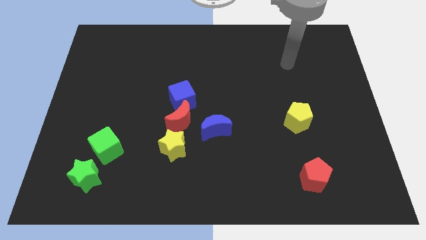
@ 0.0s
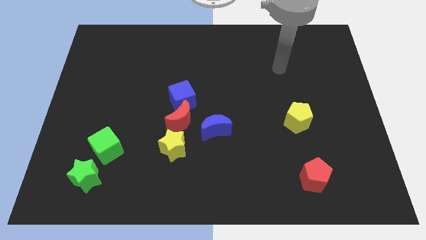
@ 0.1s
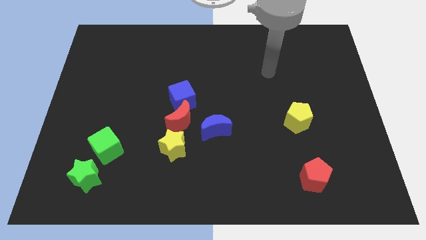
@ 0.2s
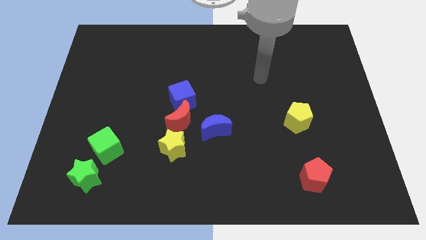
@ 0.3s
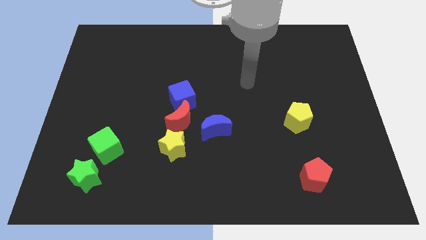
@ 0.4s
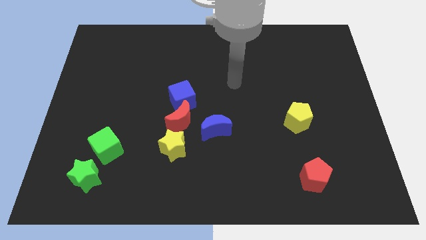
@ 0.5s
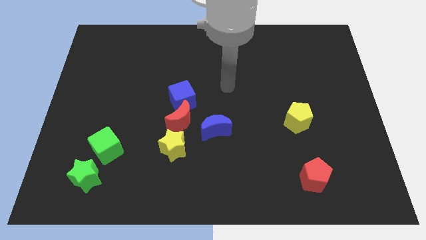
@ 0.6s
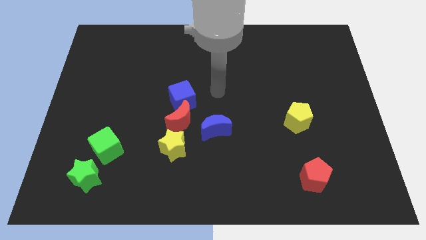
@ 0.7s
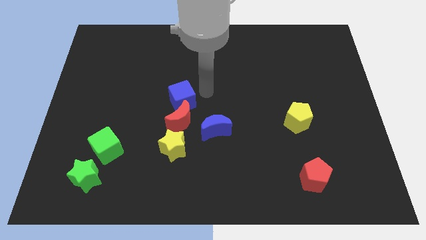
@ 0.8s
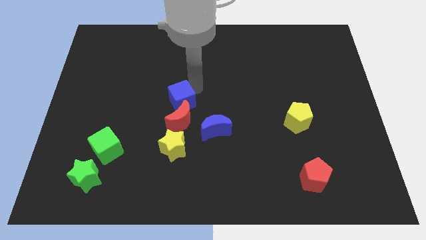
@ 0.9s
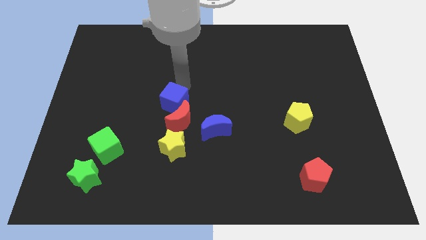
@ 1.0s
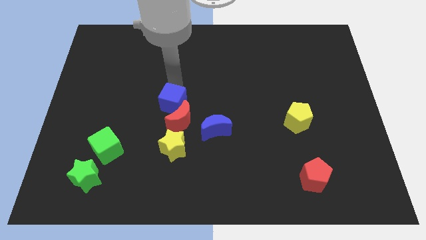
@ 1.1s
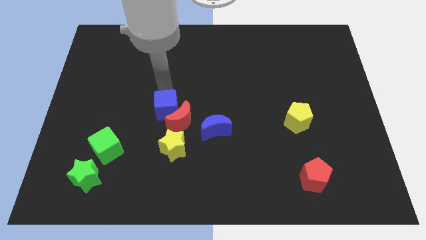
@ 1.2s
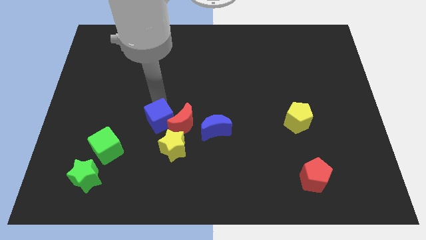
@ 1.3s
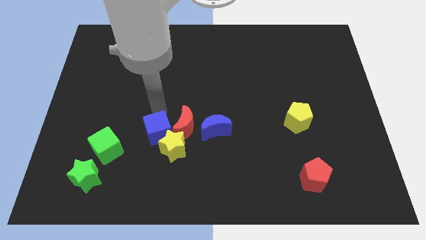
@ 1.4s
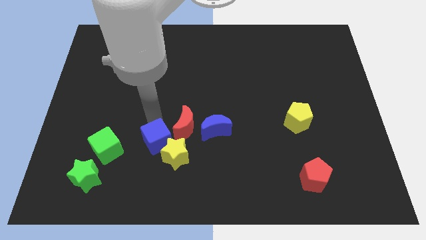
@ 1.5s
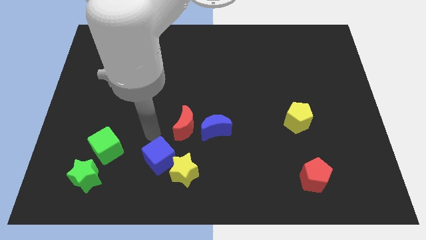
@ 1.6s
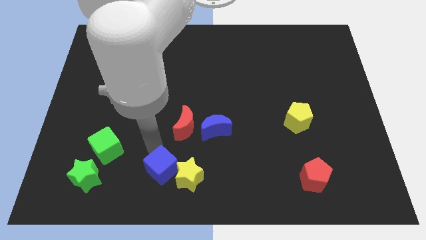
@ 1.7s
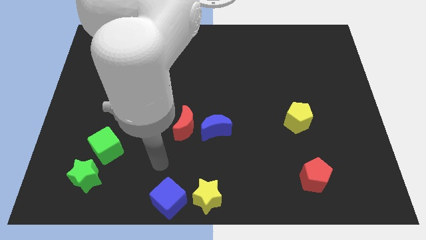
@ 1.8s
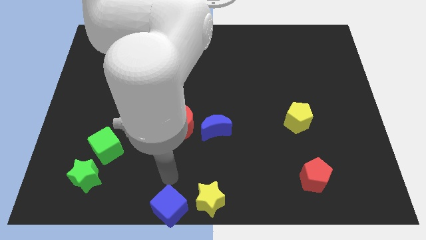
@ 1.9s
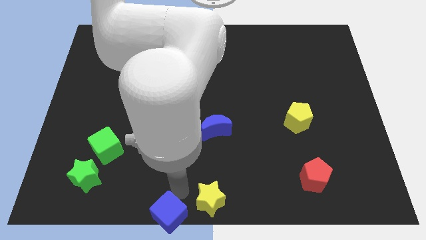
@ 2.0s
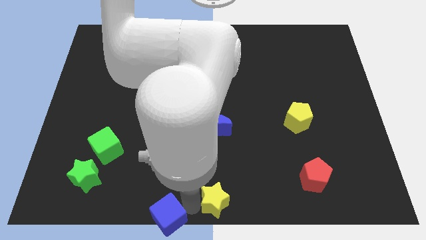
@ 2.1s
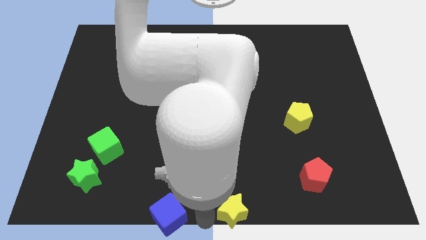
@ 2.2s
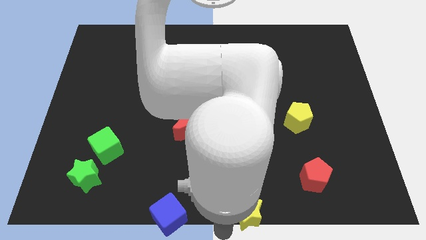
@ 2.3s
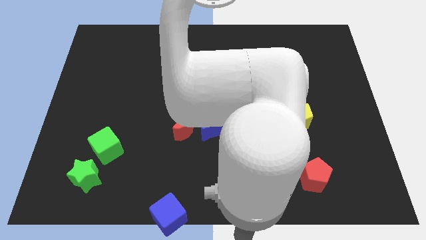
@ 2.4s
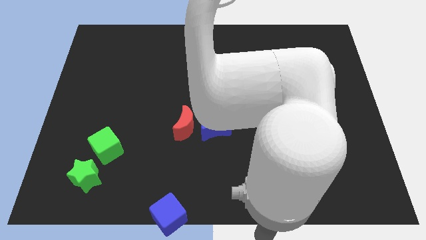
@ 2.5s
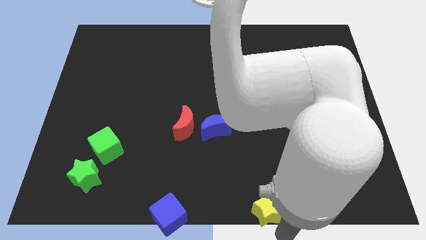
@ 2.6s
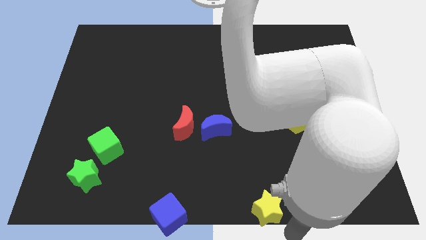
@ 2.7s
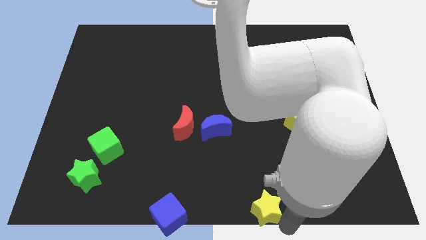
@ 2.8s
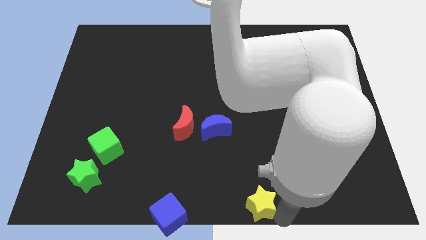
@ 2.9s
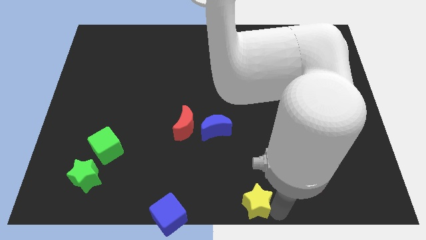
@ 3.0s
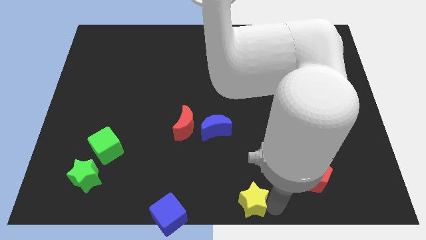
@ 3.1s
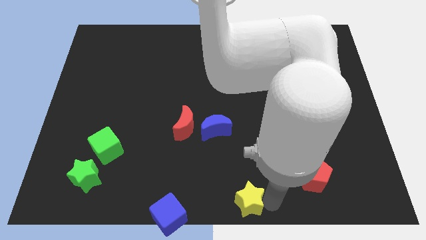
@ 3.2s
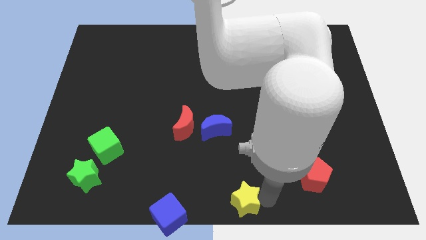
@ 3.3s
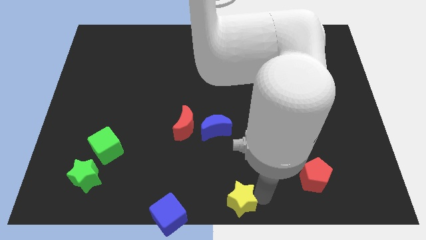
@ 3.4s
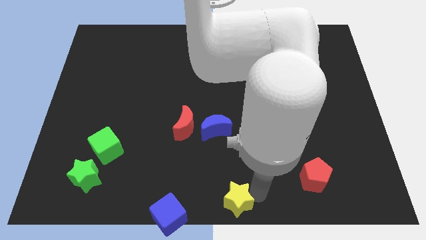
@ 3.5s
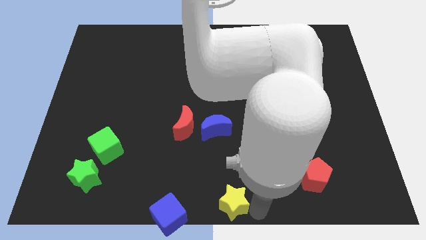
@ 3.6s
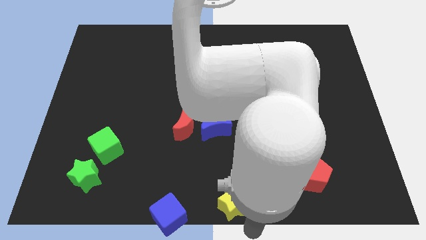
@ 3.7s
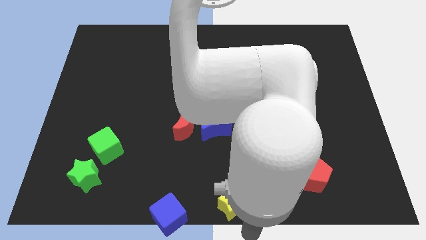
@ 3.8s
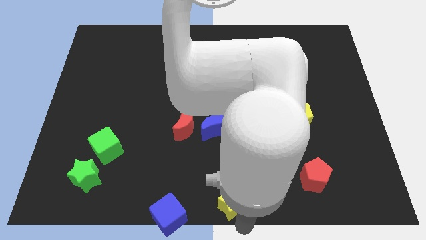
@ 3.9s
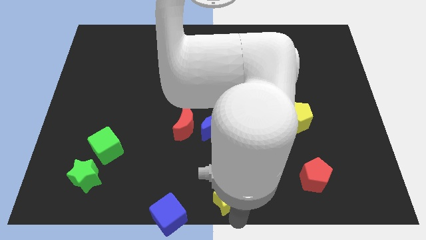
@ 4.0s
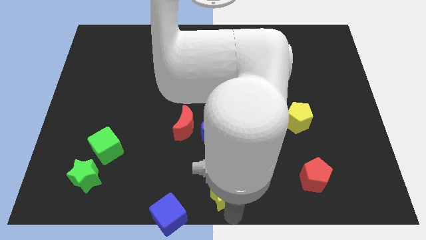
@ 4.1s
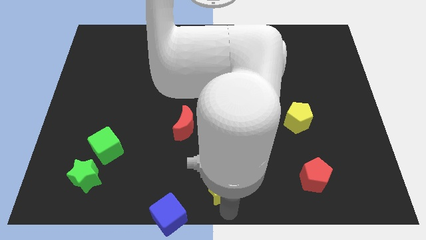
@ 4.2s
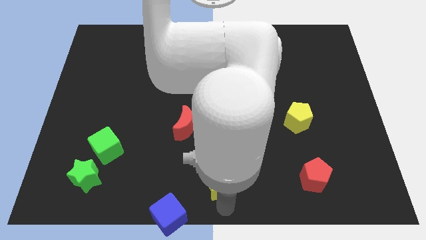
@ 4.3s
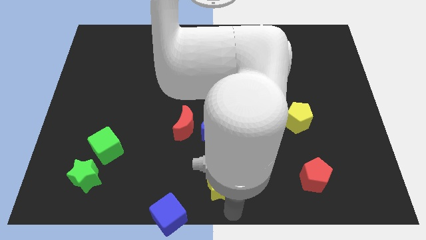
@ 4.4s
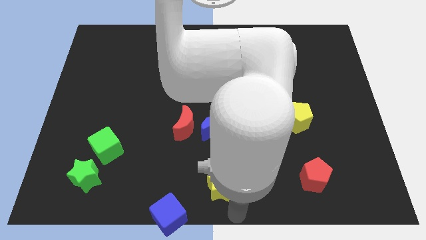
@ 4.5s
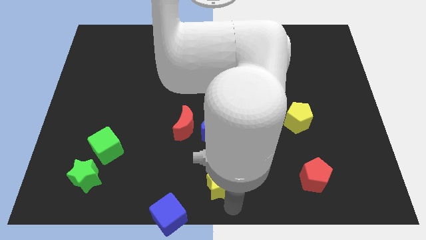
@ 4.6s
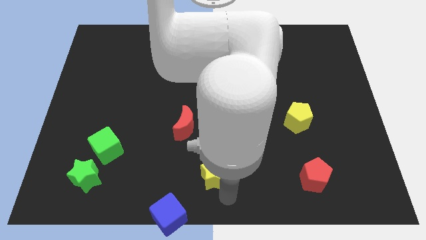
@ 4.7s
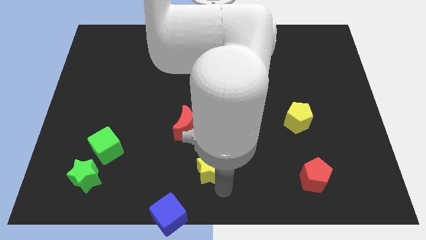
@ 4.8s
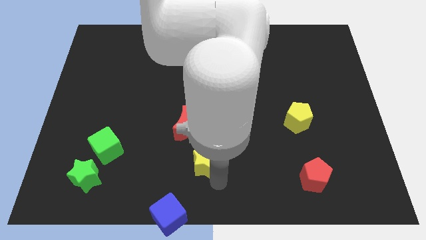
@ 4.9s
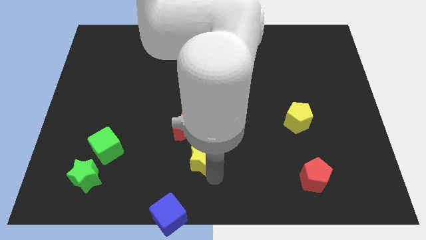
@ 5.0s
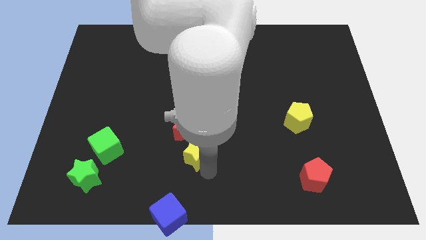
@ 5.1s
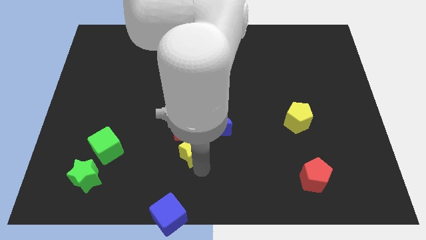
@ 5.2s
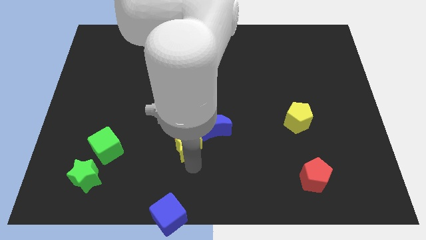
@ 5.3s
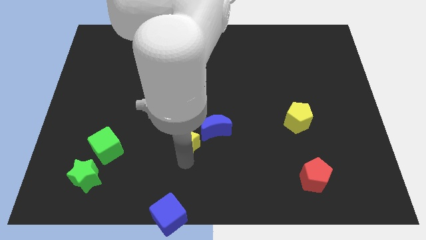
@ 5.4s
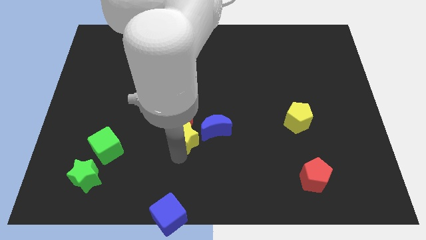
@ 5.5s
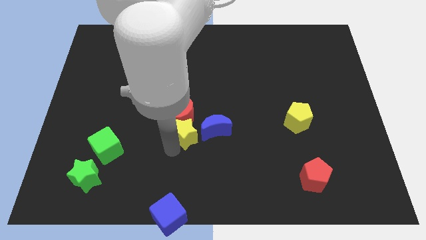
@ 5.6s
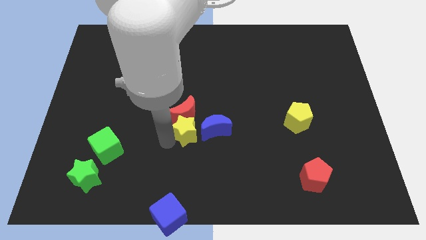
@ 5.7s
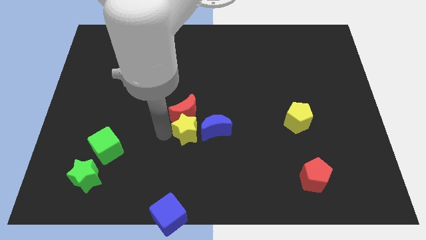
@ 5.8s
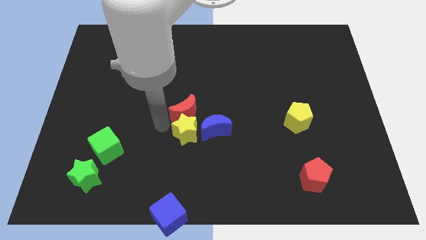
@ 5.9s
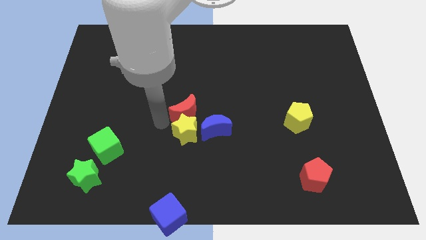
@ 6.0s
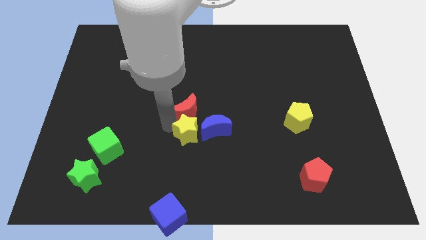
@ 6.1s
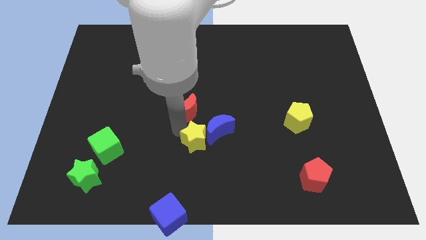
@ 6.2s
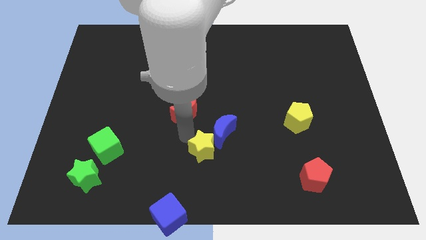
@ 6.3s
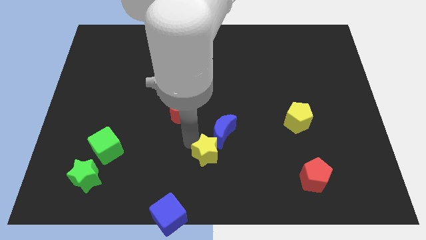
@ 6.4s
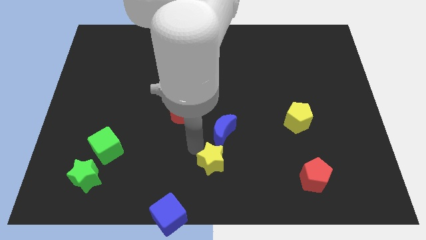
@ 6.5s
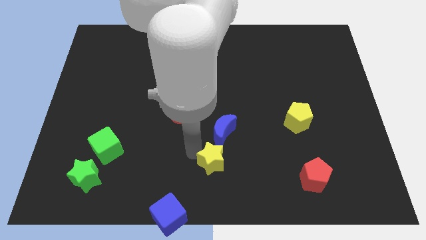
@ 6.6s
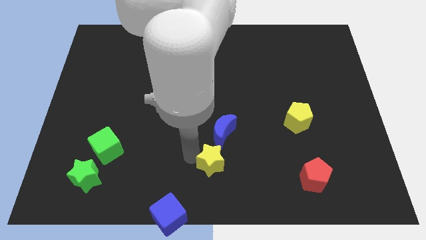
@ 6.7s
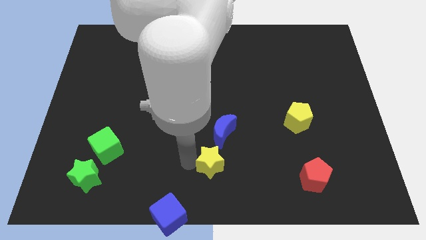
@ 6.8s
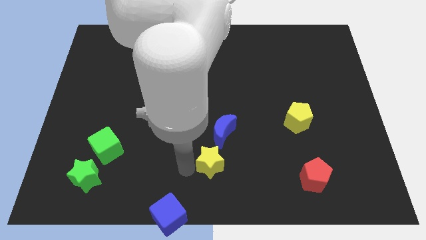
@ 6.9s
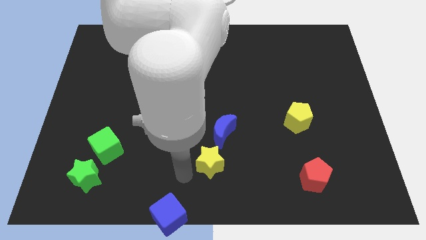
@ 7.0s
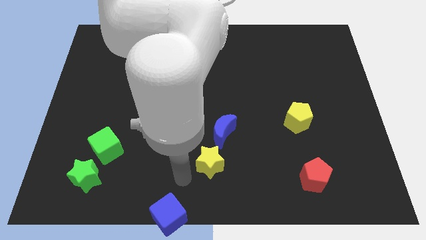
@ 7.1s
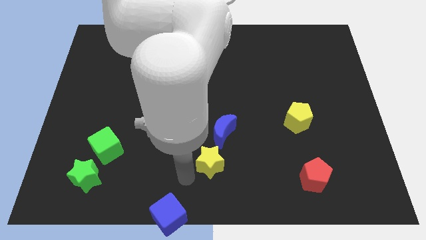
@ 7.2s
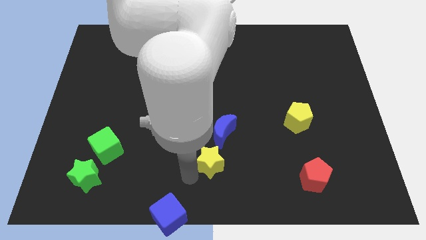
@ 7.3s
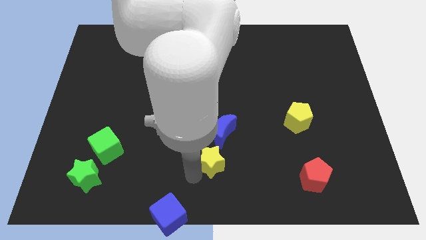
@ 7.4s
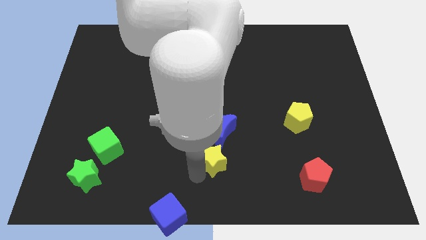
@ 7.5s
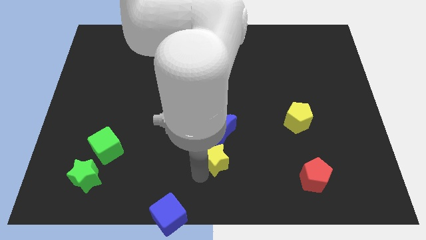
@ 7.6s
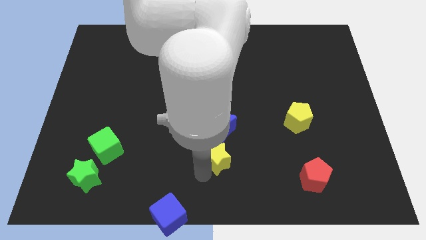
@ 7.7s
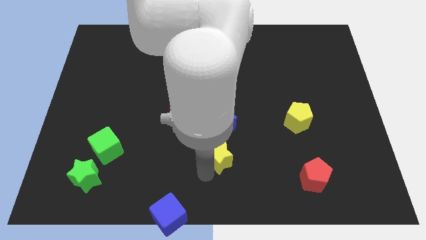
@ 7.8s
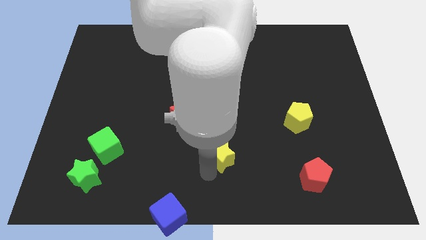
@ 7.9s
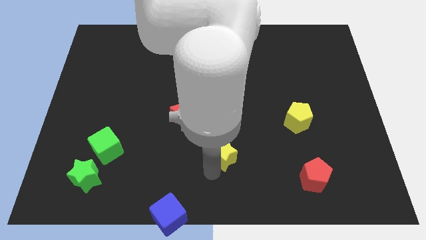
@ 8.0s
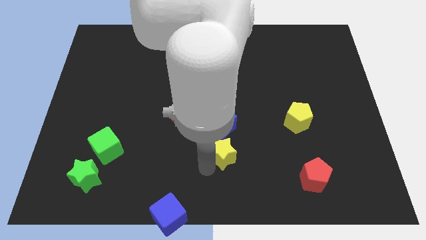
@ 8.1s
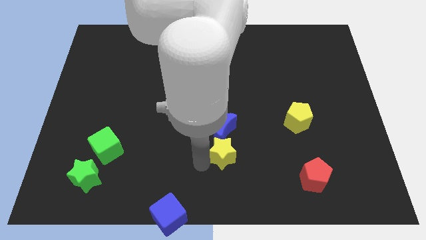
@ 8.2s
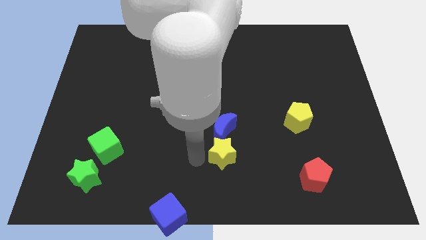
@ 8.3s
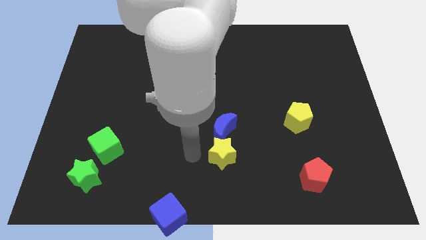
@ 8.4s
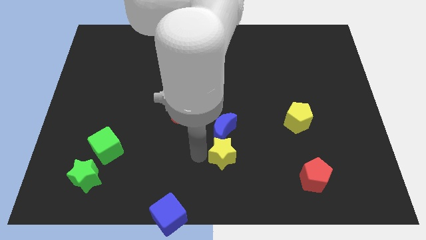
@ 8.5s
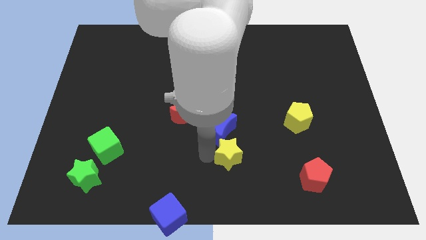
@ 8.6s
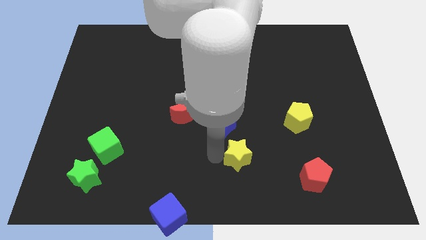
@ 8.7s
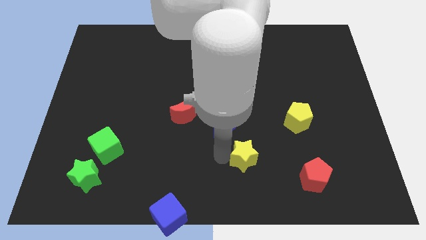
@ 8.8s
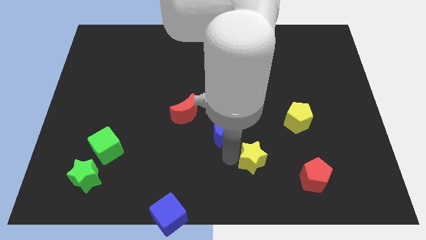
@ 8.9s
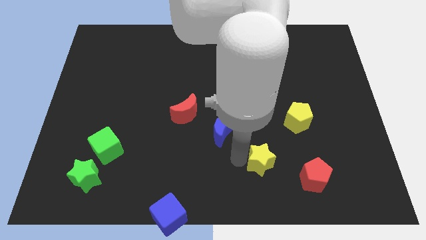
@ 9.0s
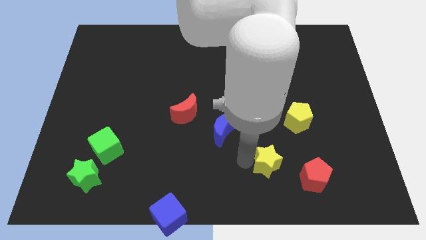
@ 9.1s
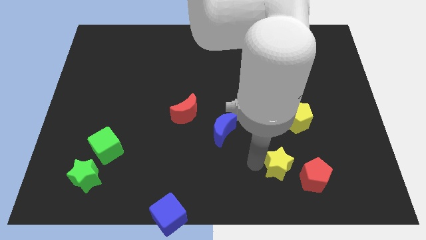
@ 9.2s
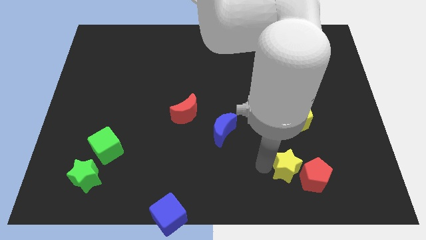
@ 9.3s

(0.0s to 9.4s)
put the yellow star to the bottom side of the yellow pentagon
